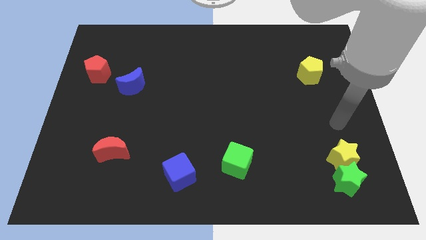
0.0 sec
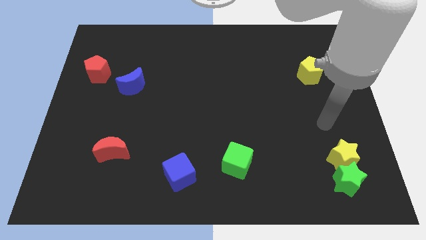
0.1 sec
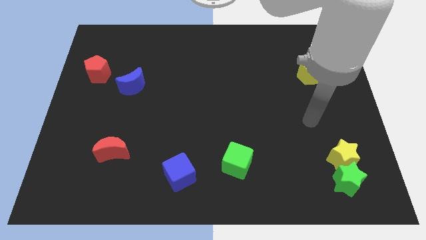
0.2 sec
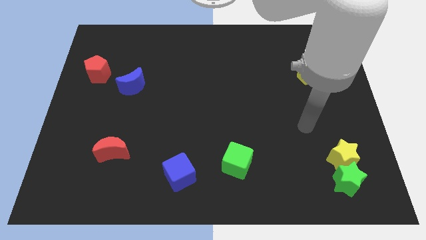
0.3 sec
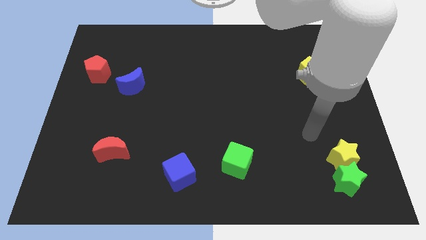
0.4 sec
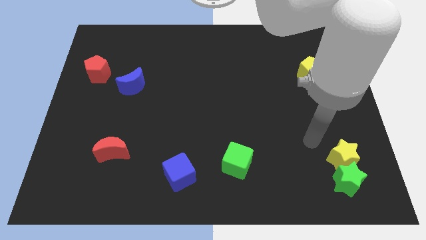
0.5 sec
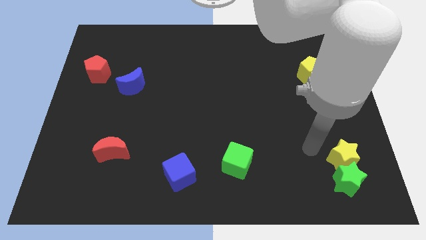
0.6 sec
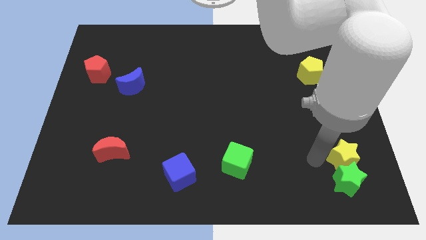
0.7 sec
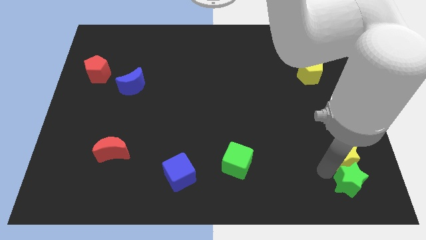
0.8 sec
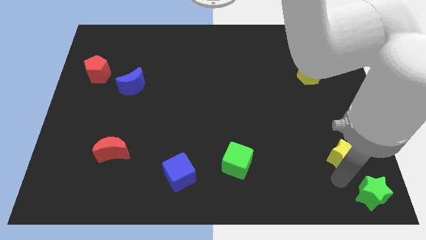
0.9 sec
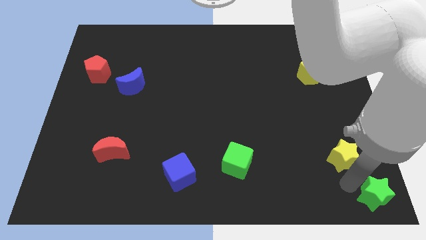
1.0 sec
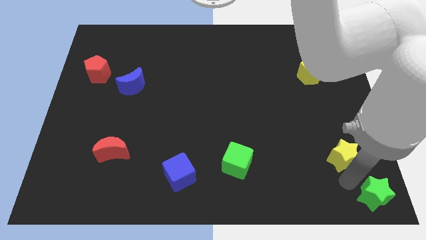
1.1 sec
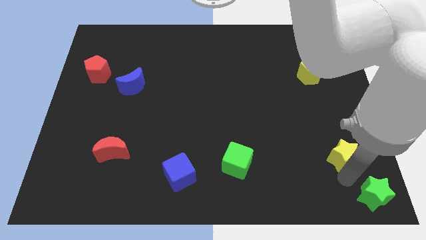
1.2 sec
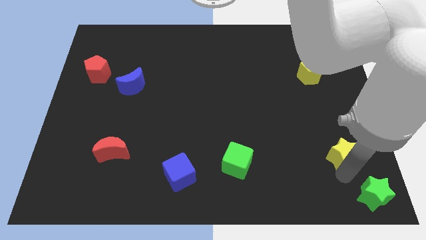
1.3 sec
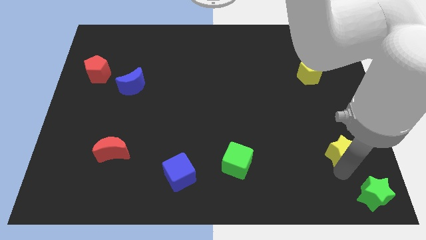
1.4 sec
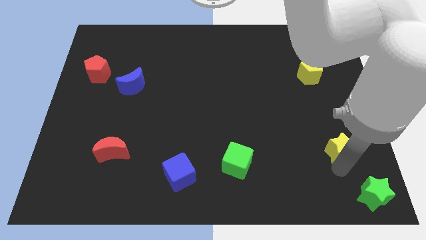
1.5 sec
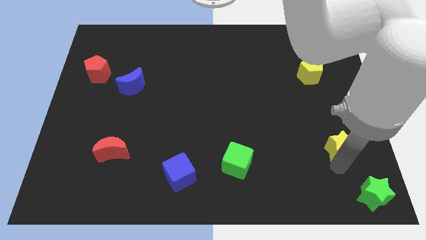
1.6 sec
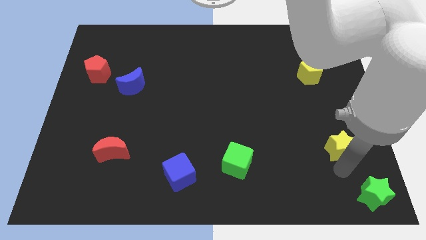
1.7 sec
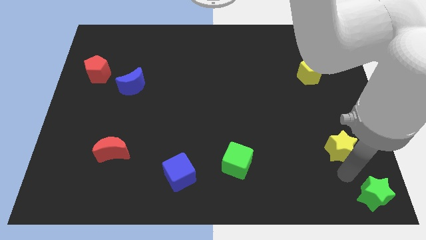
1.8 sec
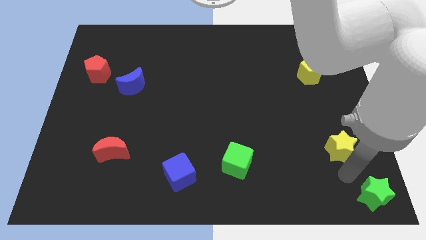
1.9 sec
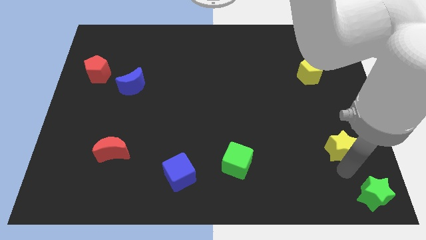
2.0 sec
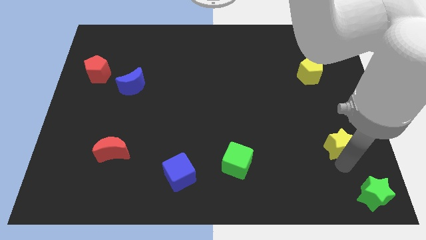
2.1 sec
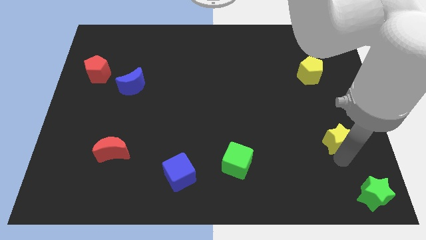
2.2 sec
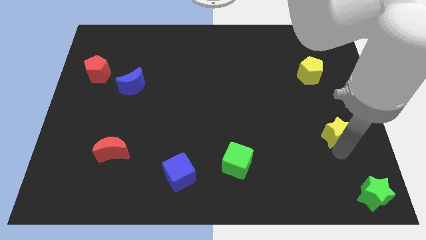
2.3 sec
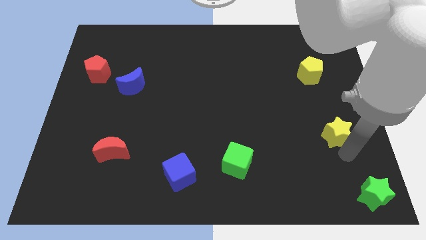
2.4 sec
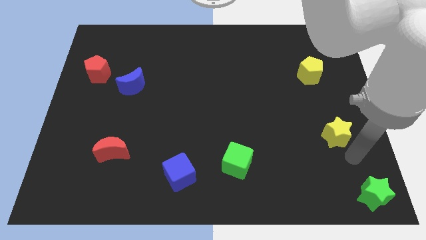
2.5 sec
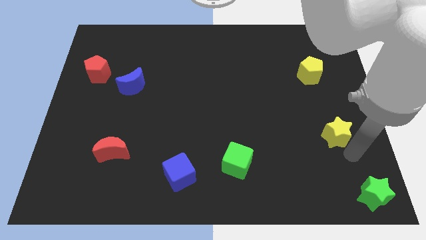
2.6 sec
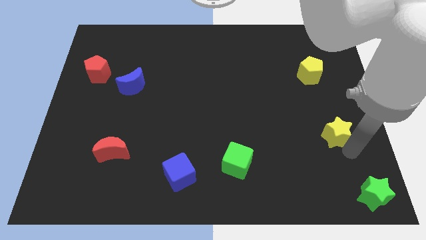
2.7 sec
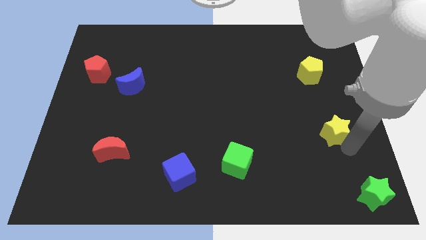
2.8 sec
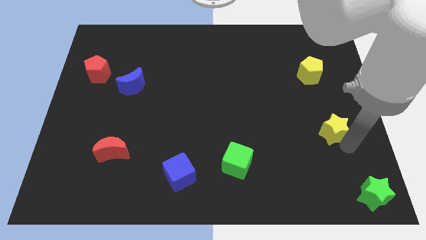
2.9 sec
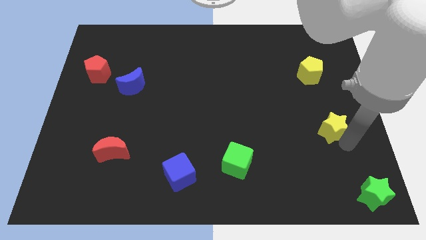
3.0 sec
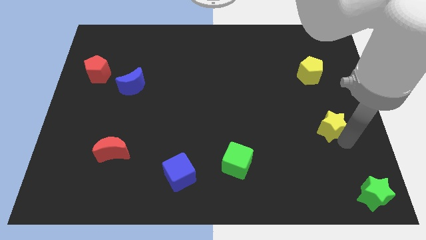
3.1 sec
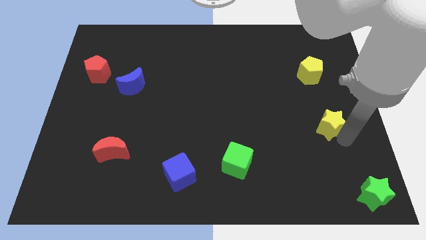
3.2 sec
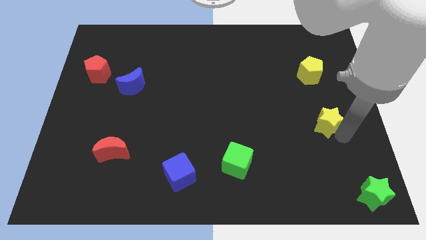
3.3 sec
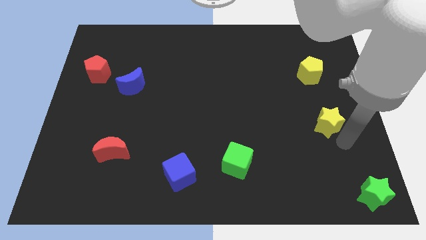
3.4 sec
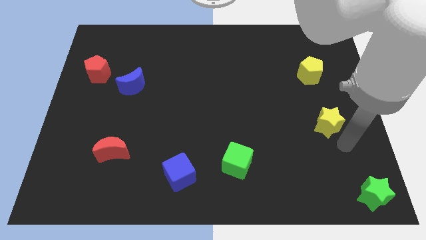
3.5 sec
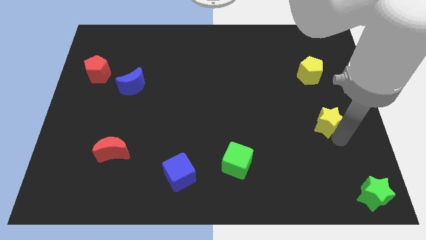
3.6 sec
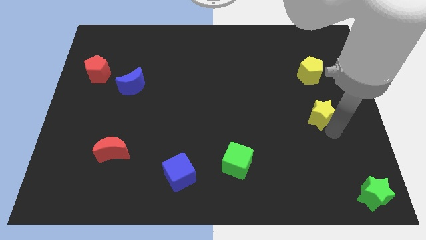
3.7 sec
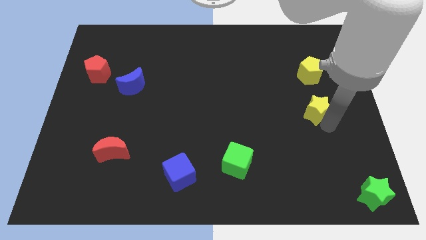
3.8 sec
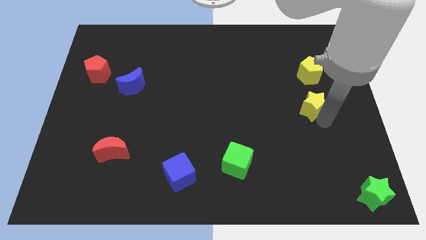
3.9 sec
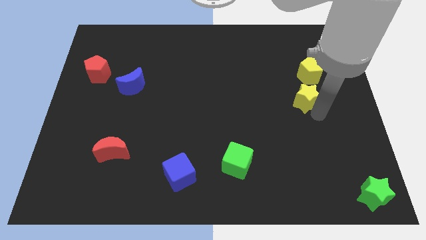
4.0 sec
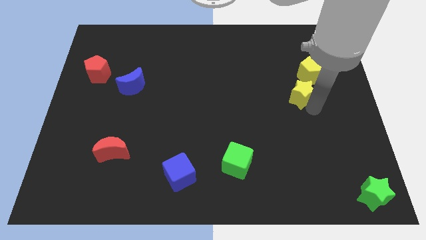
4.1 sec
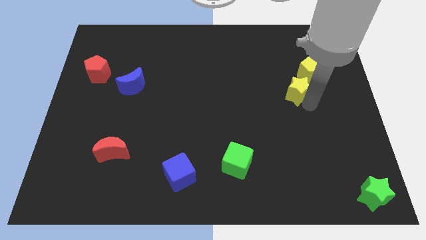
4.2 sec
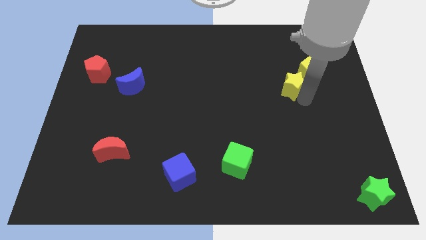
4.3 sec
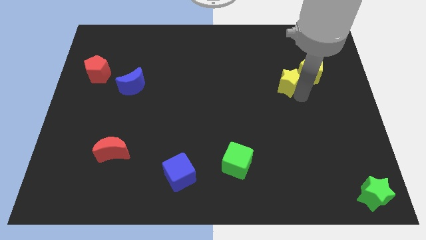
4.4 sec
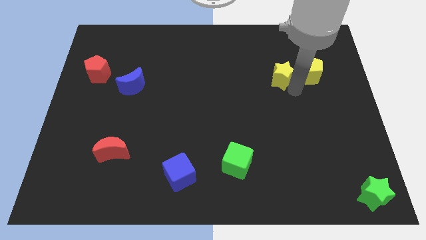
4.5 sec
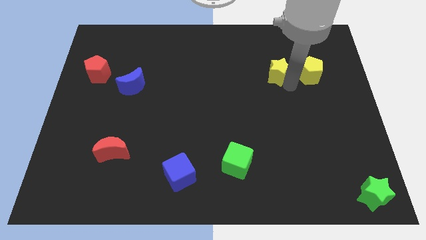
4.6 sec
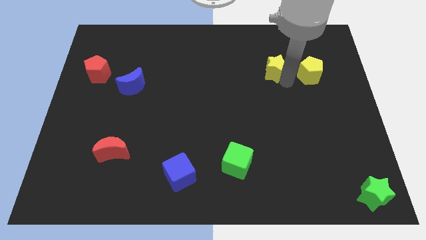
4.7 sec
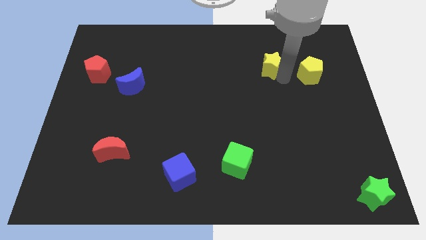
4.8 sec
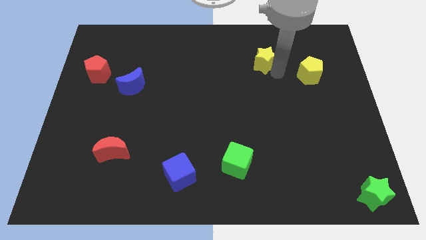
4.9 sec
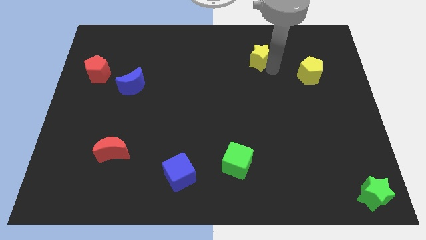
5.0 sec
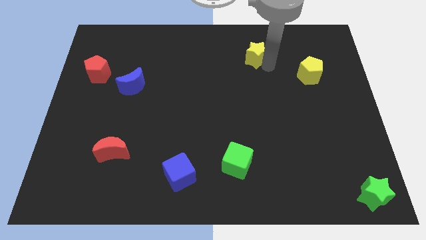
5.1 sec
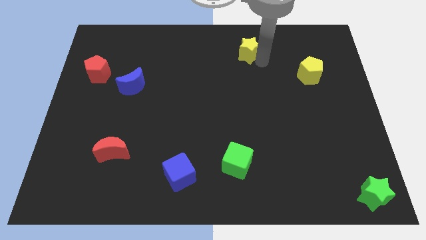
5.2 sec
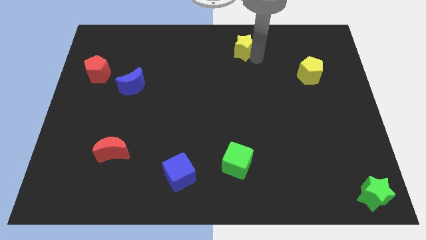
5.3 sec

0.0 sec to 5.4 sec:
slide the yellow star to the top

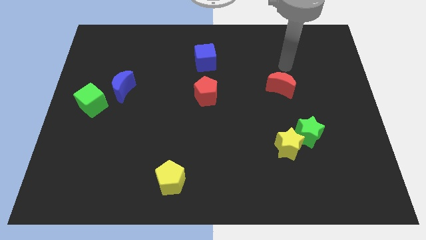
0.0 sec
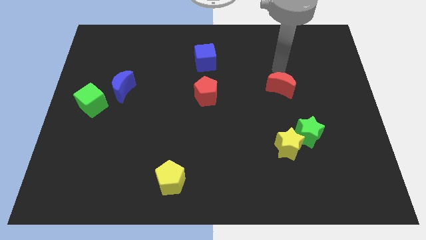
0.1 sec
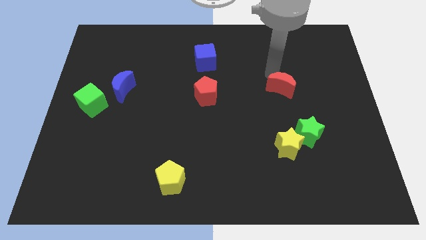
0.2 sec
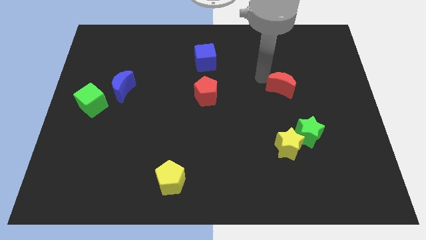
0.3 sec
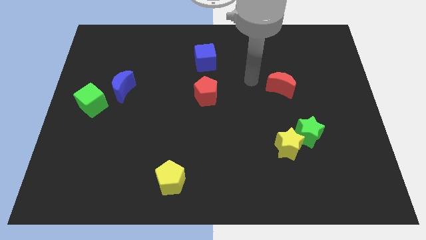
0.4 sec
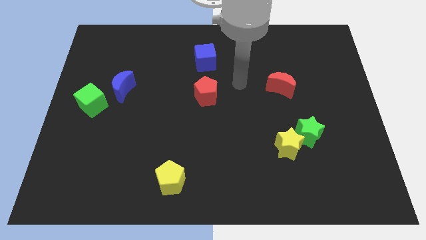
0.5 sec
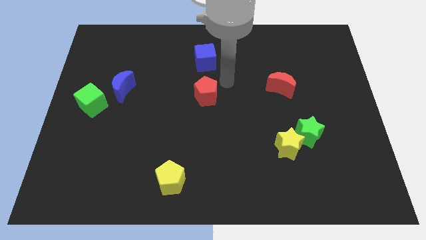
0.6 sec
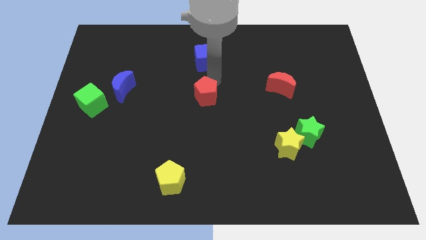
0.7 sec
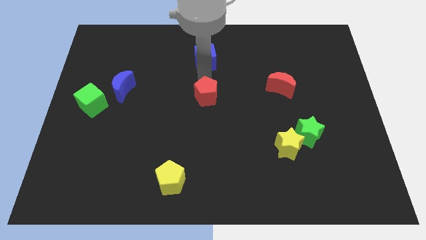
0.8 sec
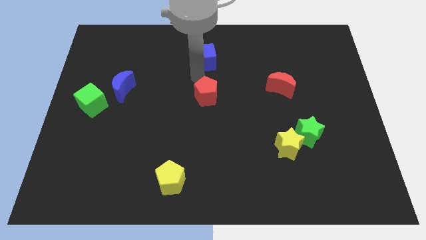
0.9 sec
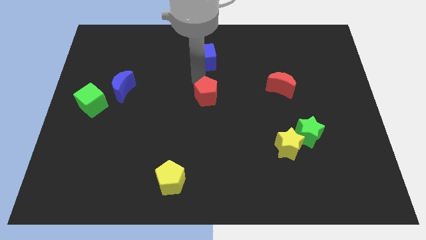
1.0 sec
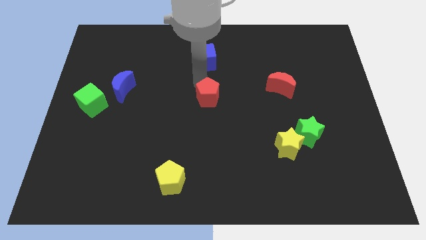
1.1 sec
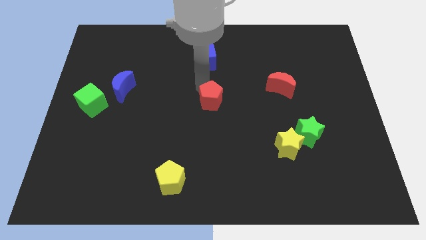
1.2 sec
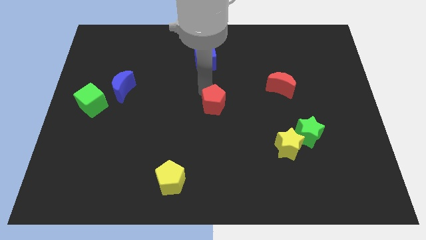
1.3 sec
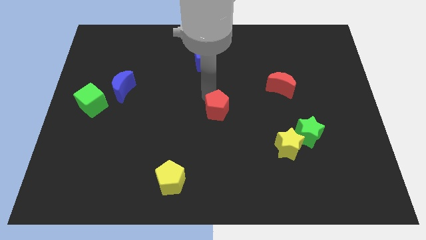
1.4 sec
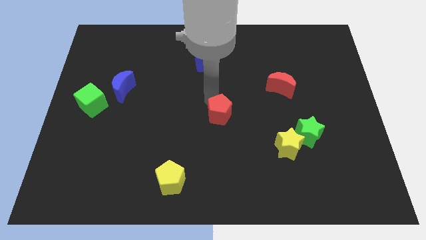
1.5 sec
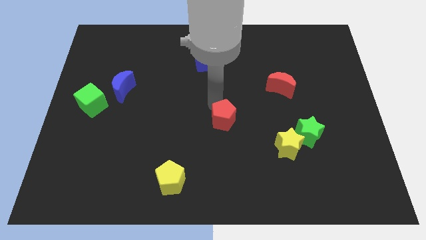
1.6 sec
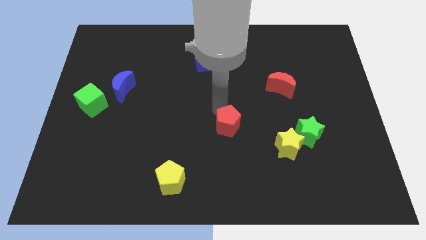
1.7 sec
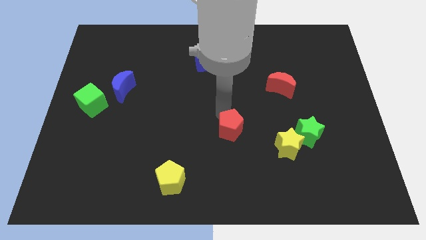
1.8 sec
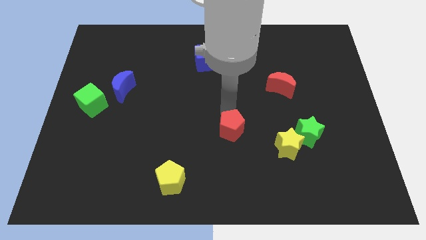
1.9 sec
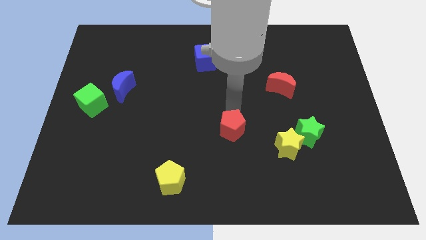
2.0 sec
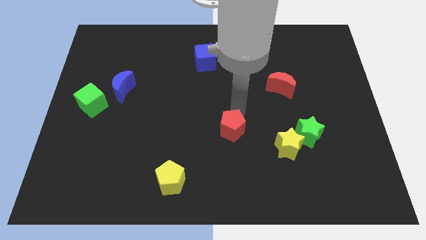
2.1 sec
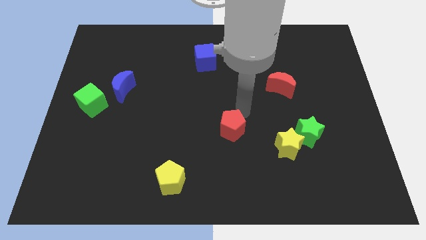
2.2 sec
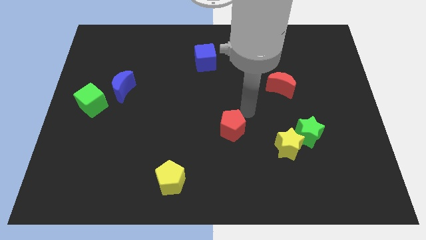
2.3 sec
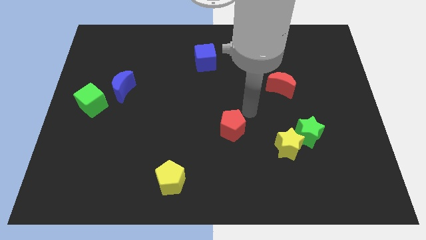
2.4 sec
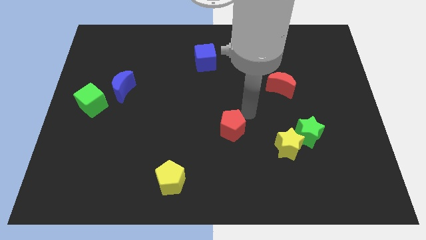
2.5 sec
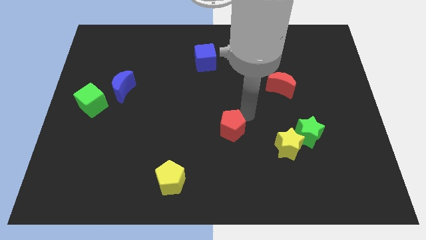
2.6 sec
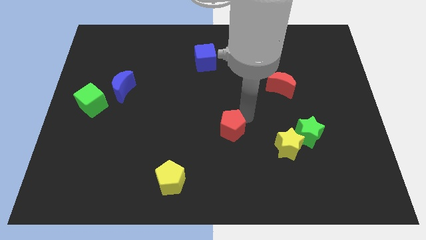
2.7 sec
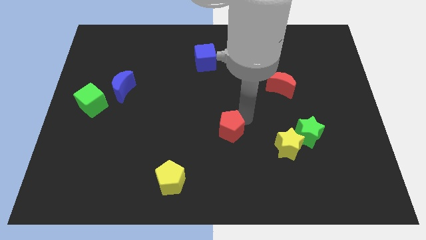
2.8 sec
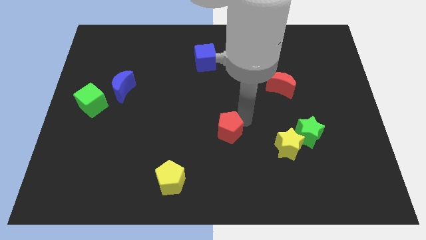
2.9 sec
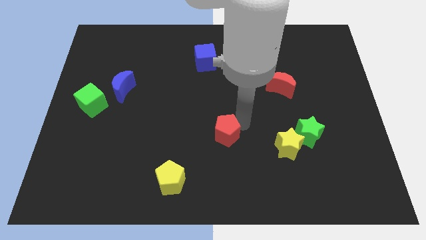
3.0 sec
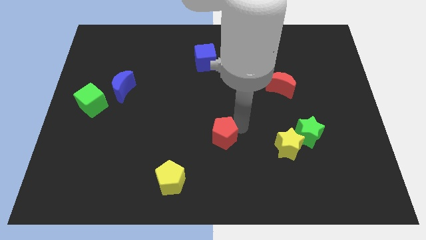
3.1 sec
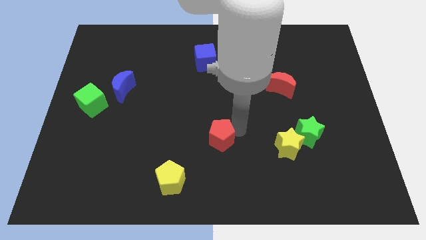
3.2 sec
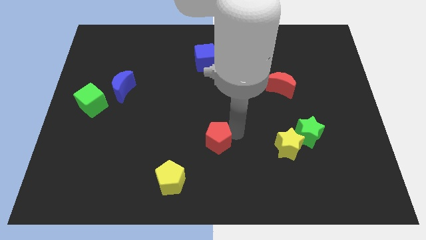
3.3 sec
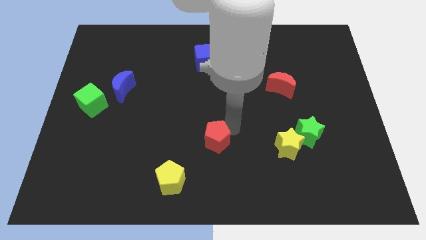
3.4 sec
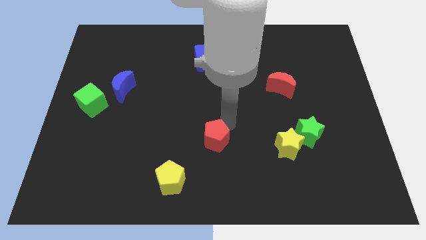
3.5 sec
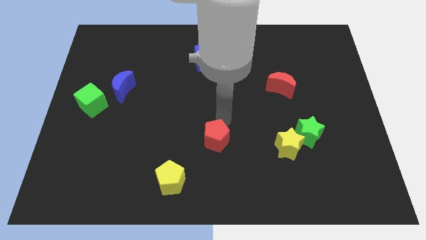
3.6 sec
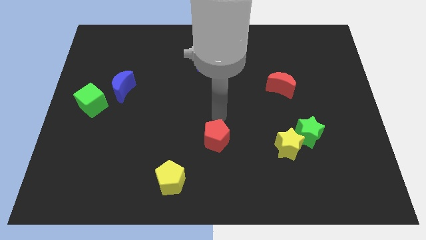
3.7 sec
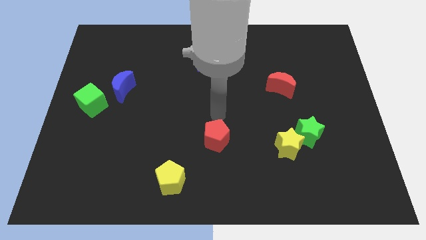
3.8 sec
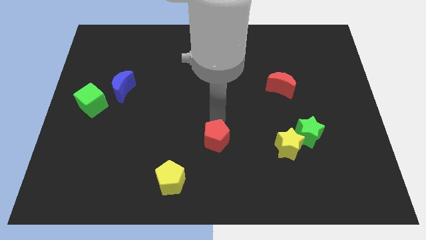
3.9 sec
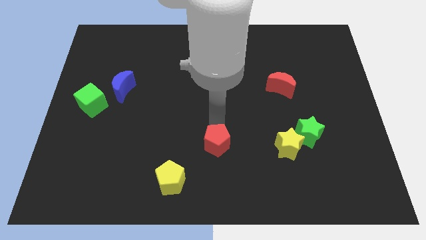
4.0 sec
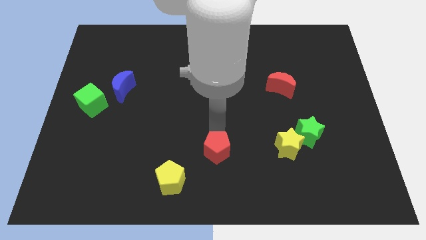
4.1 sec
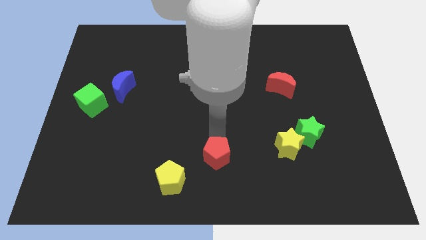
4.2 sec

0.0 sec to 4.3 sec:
slide the red pentagon to the bottom side
